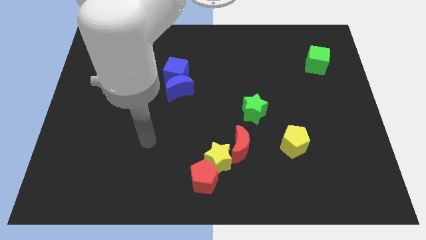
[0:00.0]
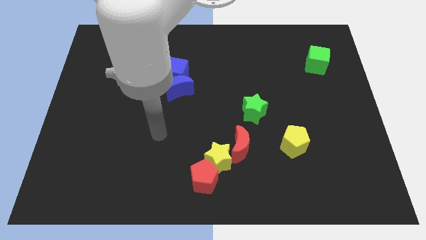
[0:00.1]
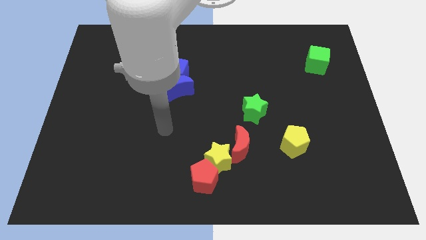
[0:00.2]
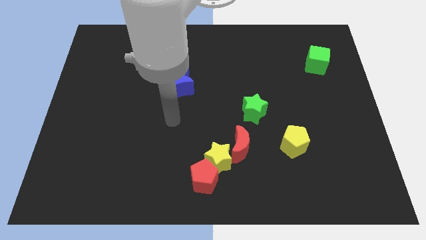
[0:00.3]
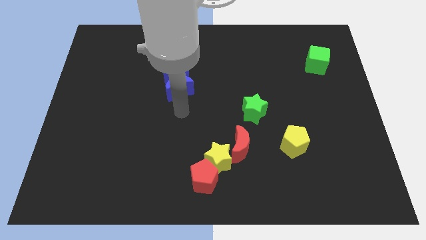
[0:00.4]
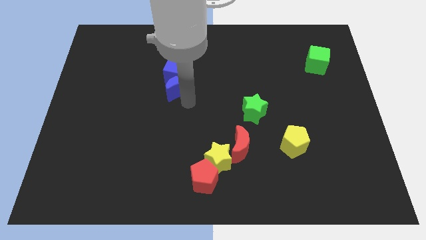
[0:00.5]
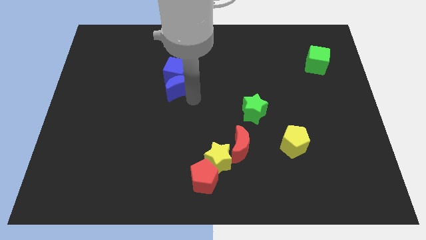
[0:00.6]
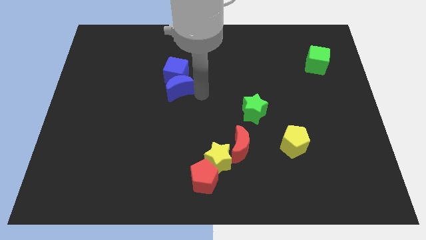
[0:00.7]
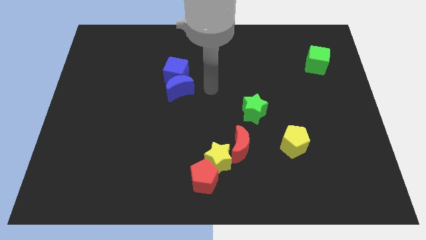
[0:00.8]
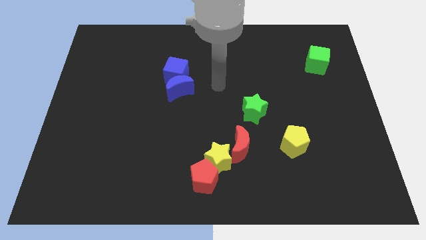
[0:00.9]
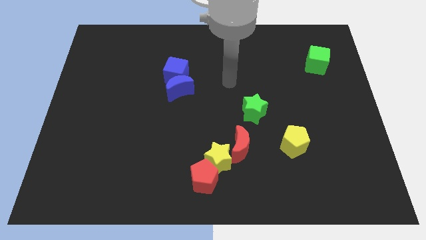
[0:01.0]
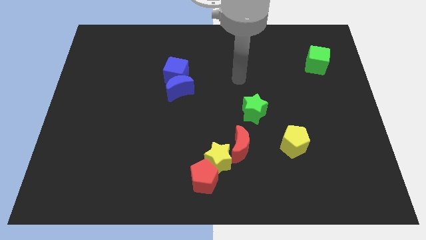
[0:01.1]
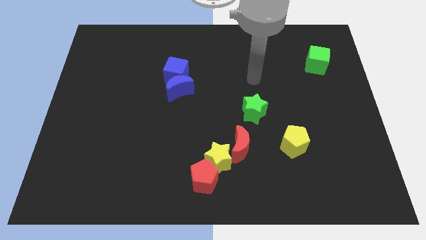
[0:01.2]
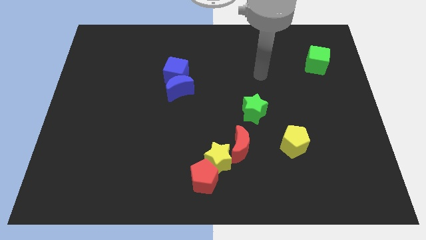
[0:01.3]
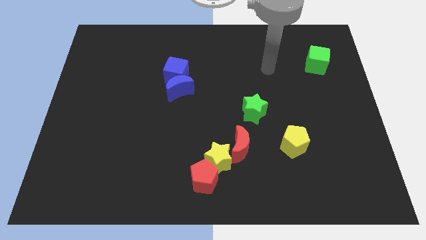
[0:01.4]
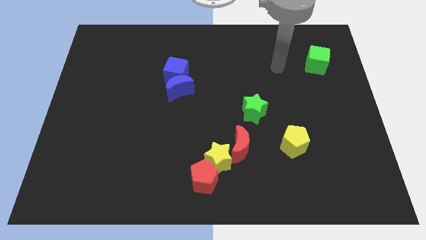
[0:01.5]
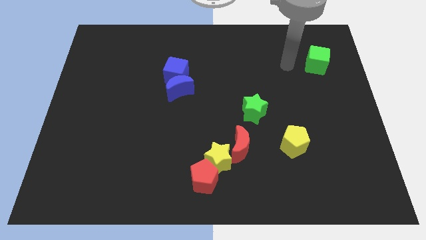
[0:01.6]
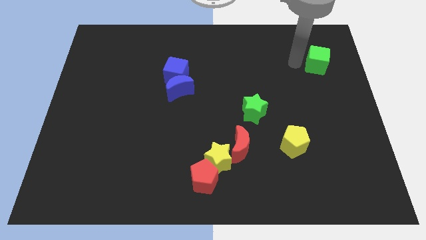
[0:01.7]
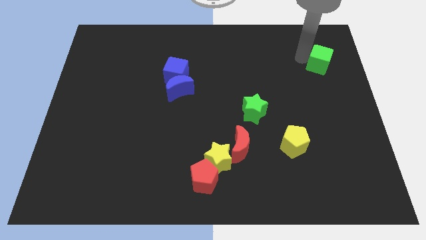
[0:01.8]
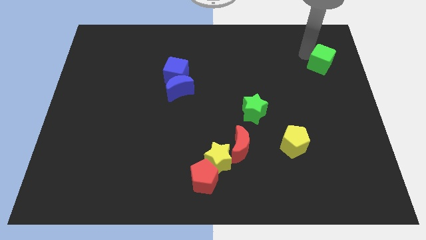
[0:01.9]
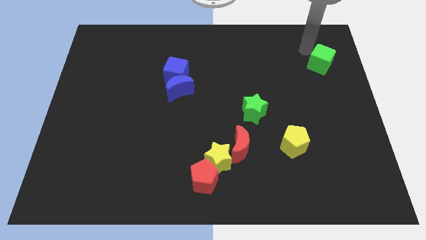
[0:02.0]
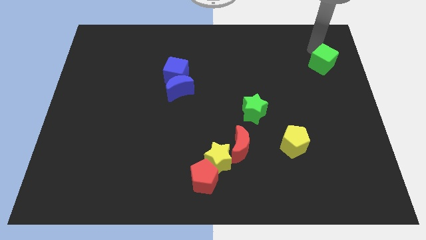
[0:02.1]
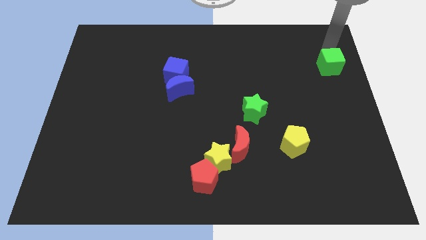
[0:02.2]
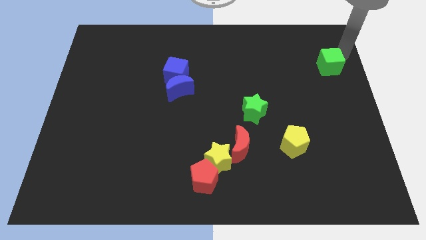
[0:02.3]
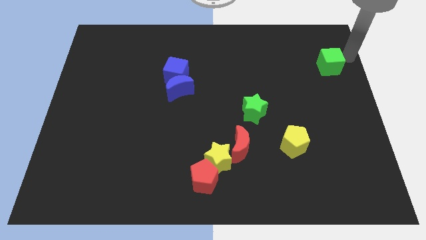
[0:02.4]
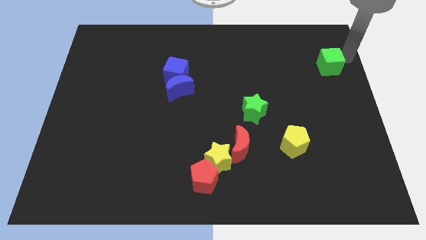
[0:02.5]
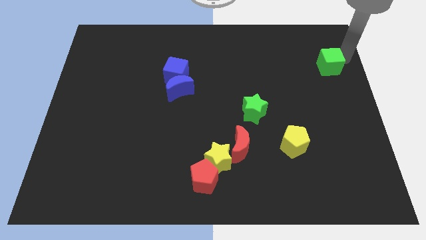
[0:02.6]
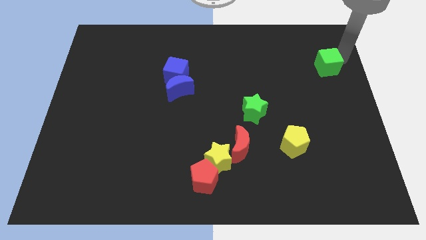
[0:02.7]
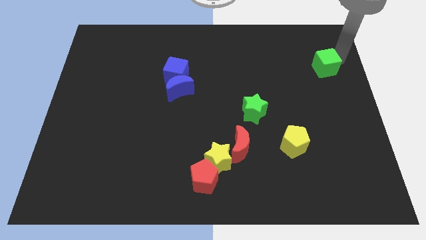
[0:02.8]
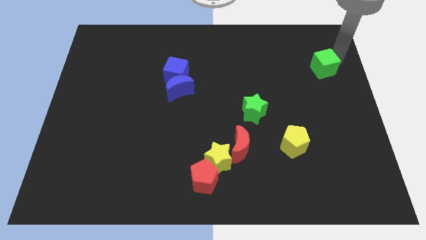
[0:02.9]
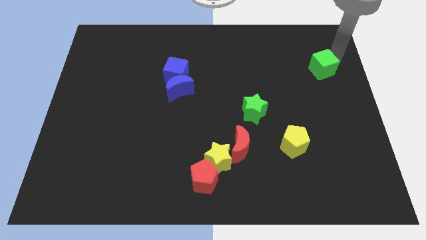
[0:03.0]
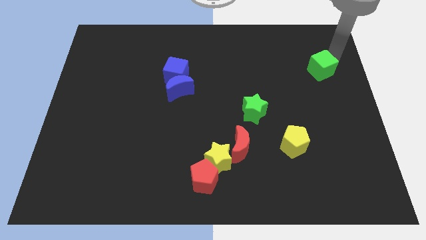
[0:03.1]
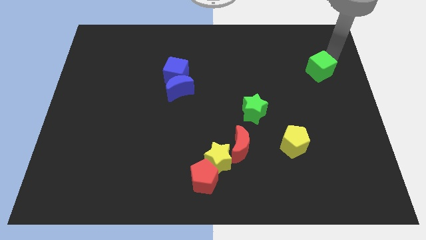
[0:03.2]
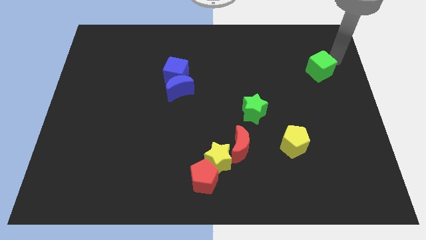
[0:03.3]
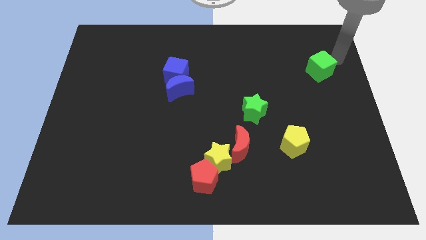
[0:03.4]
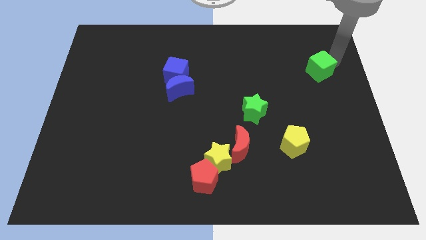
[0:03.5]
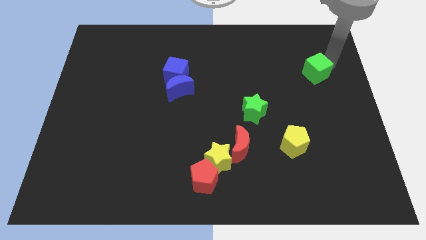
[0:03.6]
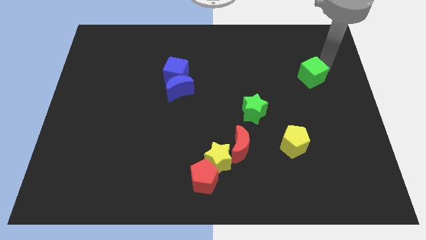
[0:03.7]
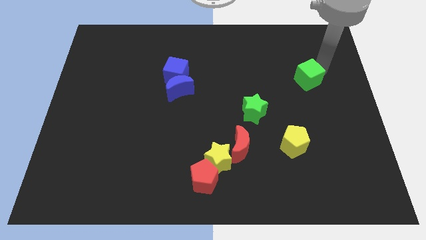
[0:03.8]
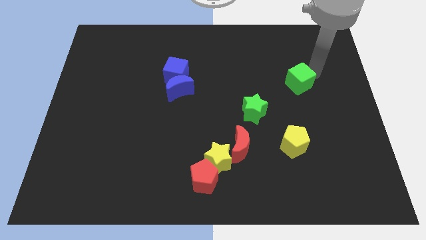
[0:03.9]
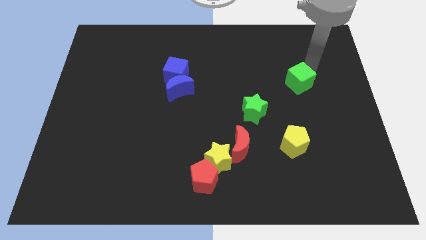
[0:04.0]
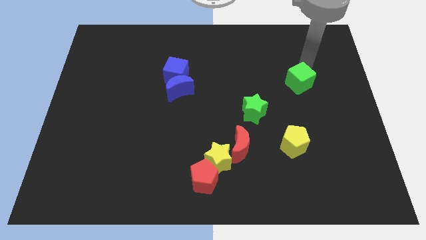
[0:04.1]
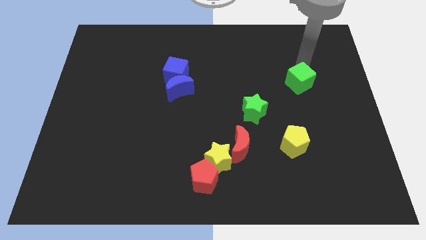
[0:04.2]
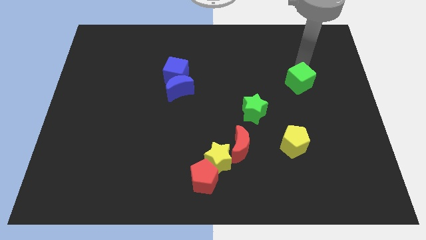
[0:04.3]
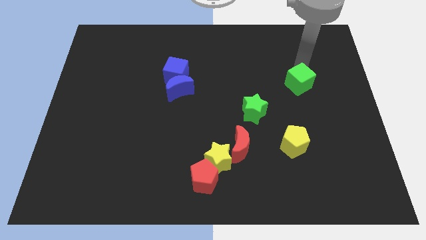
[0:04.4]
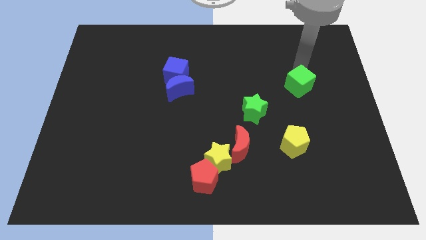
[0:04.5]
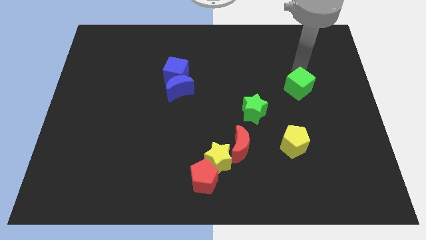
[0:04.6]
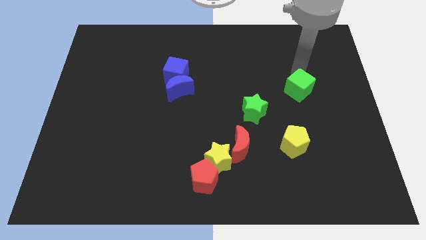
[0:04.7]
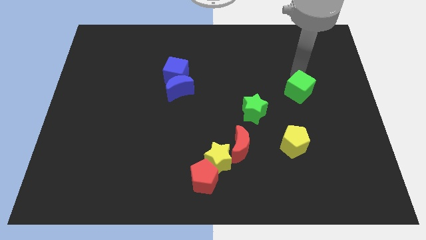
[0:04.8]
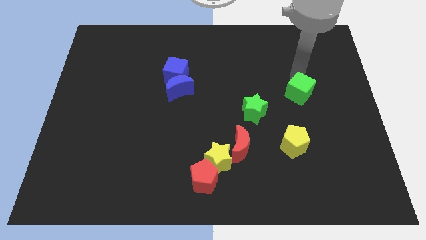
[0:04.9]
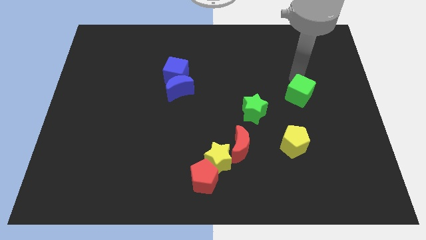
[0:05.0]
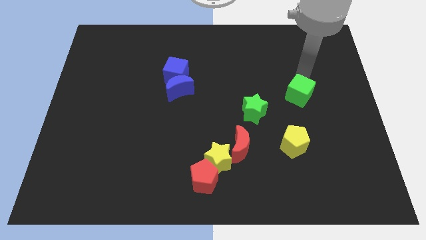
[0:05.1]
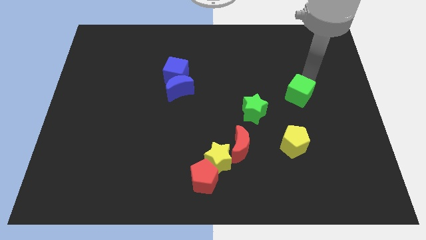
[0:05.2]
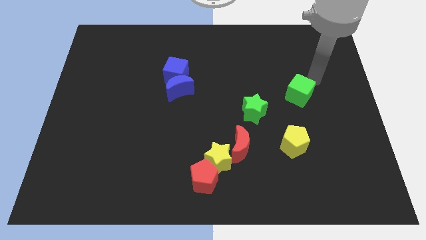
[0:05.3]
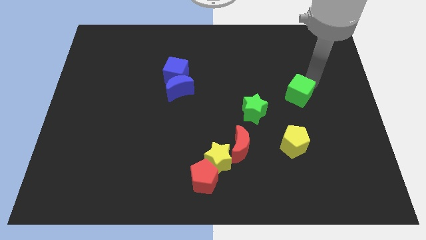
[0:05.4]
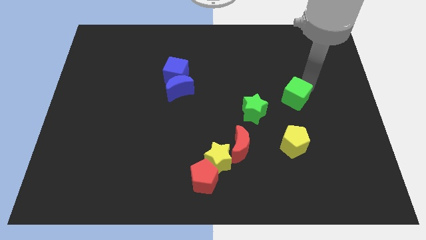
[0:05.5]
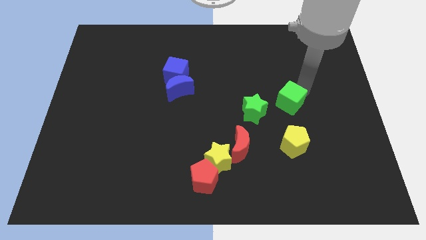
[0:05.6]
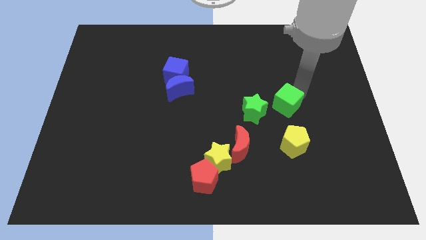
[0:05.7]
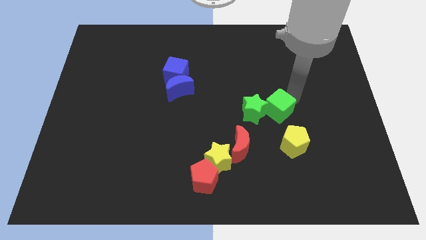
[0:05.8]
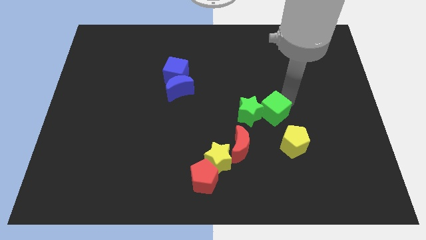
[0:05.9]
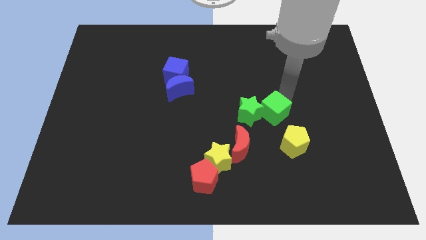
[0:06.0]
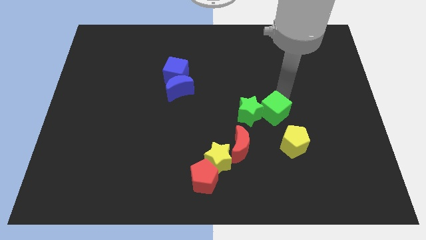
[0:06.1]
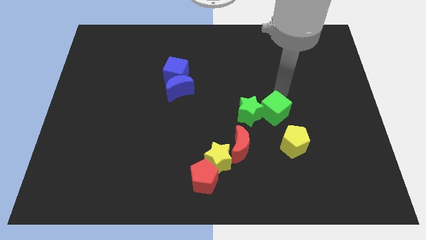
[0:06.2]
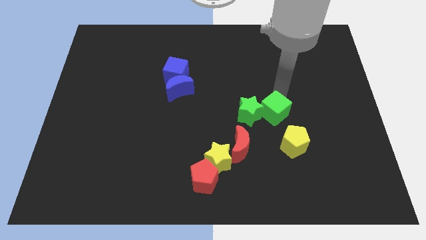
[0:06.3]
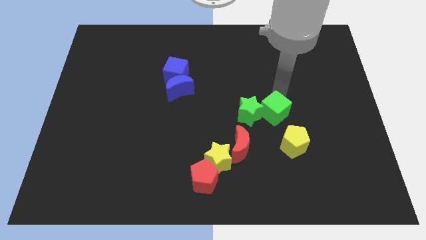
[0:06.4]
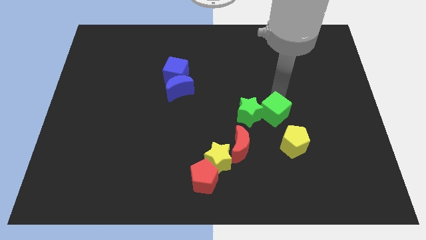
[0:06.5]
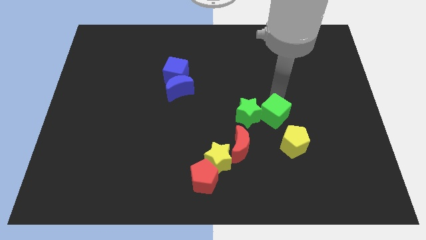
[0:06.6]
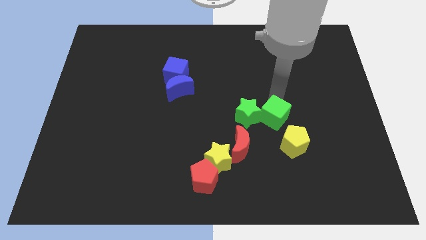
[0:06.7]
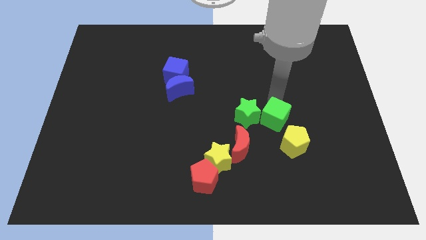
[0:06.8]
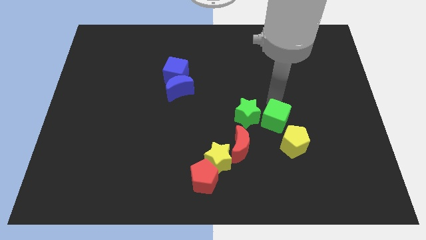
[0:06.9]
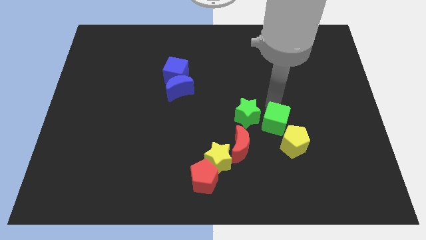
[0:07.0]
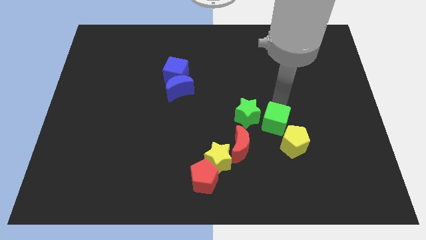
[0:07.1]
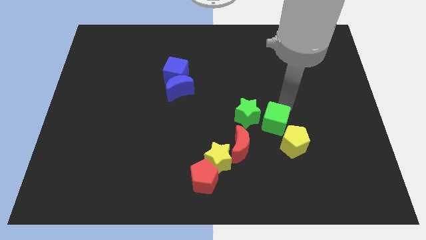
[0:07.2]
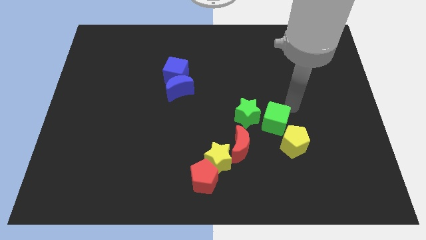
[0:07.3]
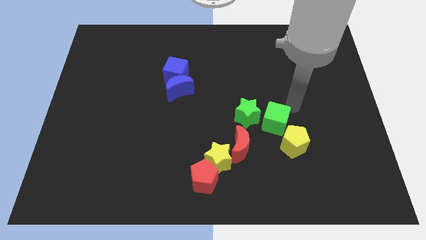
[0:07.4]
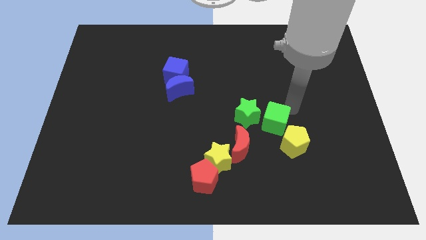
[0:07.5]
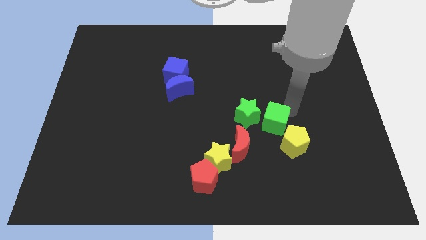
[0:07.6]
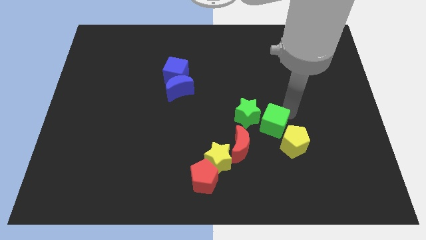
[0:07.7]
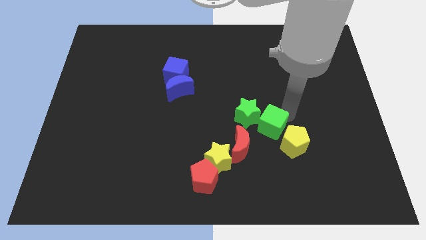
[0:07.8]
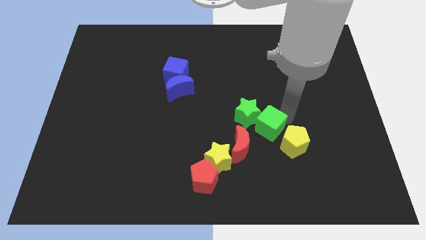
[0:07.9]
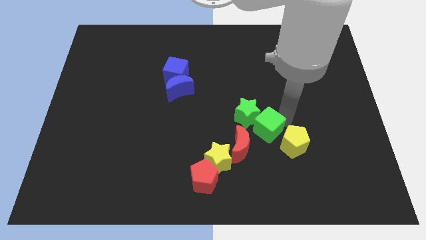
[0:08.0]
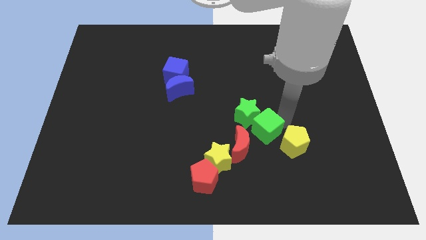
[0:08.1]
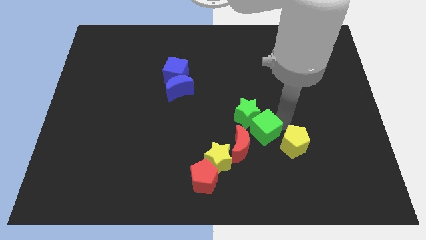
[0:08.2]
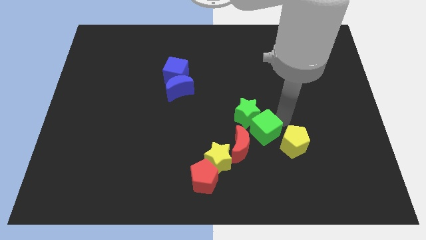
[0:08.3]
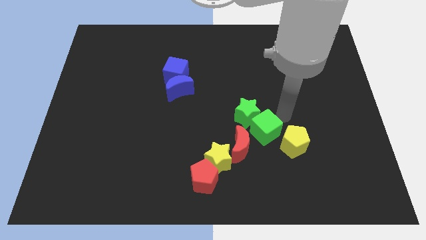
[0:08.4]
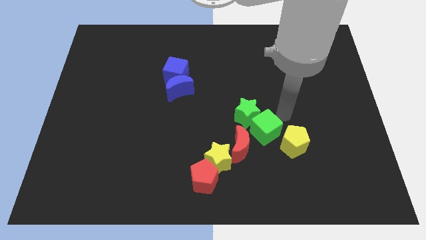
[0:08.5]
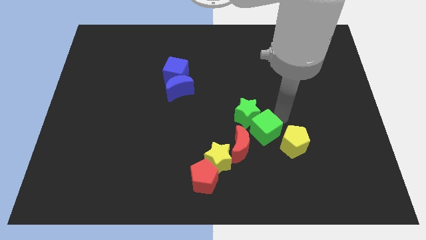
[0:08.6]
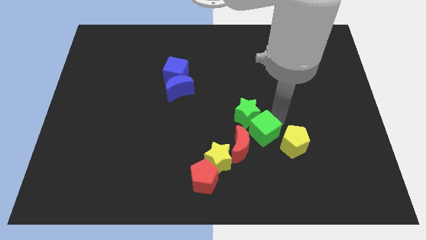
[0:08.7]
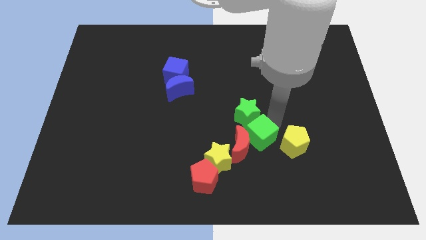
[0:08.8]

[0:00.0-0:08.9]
move the green cube close to the red moon
